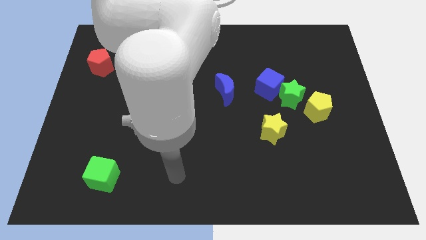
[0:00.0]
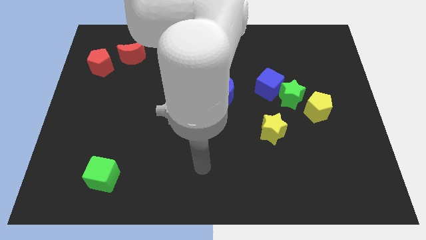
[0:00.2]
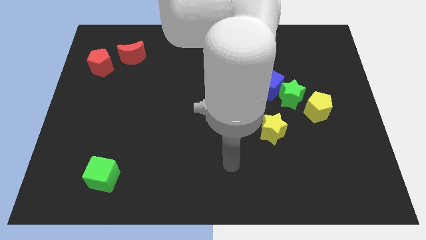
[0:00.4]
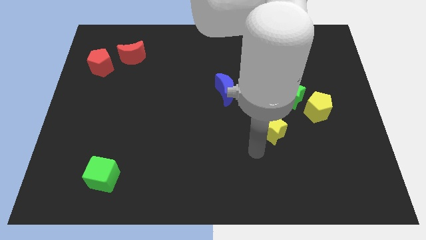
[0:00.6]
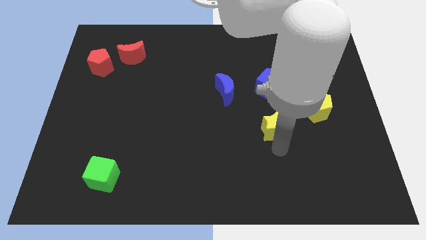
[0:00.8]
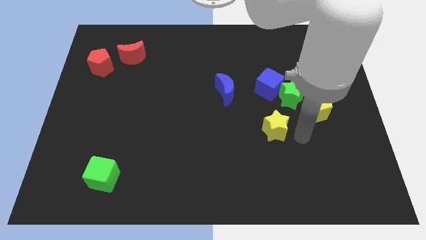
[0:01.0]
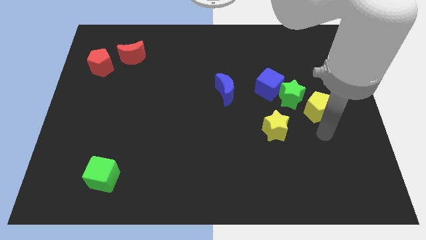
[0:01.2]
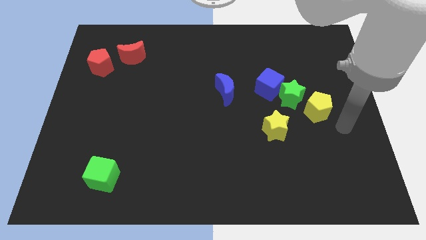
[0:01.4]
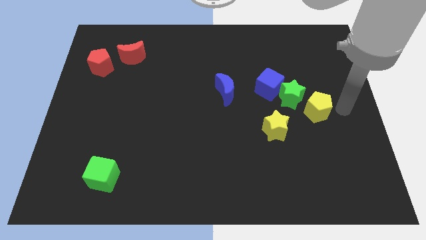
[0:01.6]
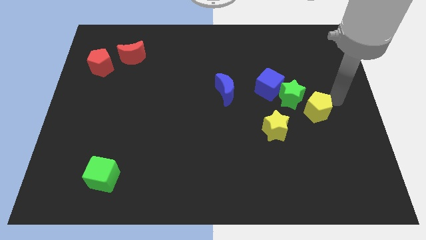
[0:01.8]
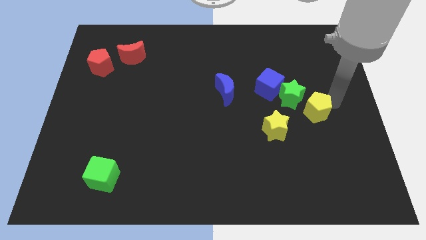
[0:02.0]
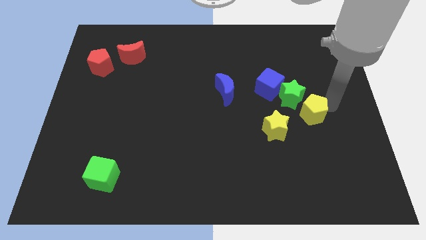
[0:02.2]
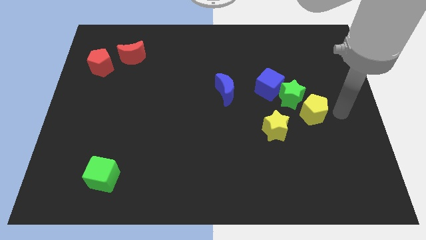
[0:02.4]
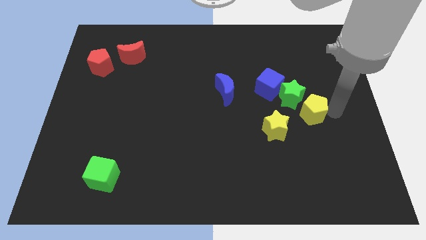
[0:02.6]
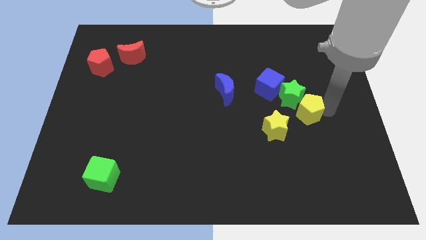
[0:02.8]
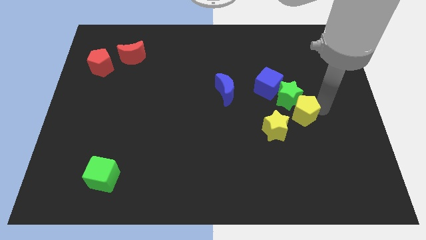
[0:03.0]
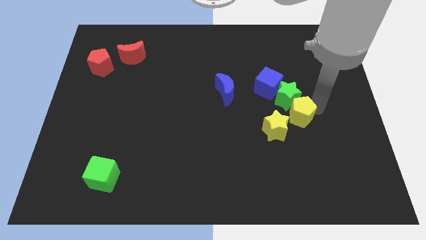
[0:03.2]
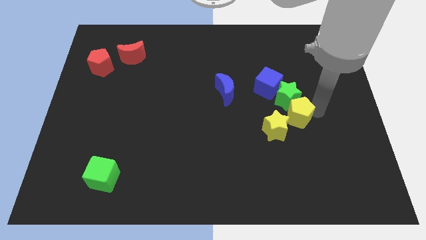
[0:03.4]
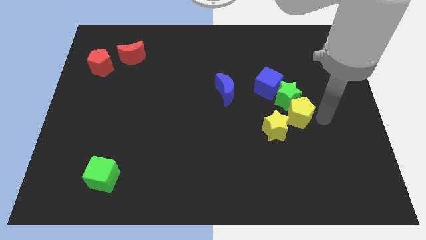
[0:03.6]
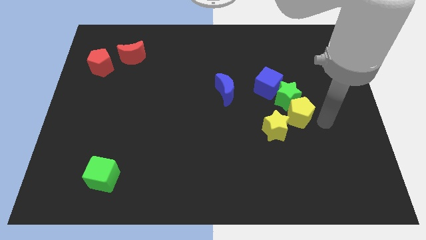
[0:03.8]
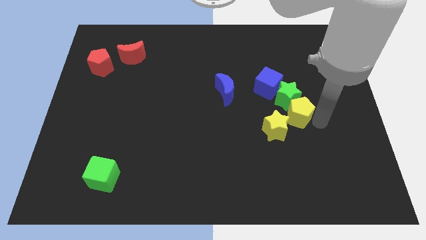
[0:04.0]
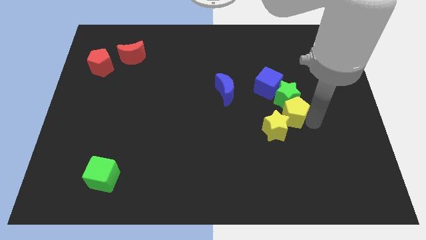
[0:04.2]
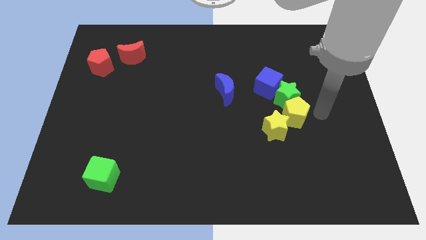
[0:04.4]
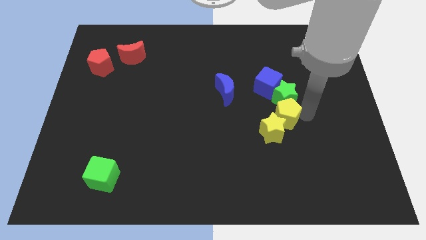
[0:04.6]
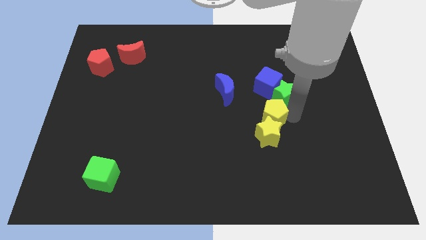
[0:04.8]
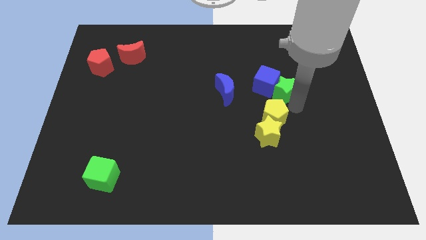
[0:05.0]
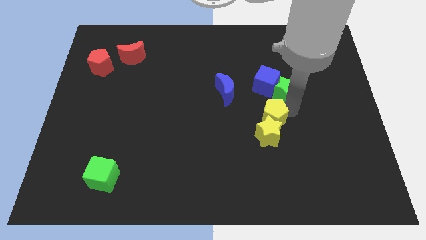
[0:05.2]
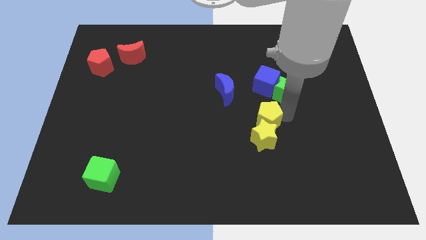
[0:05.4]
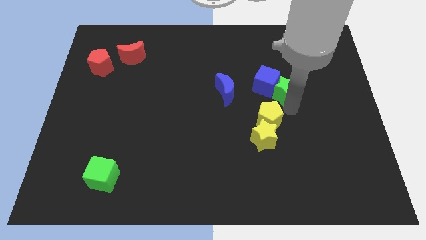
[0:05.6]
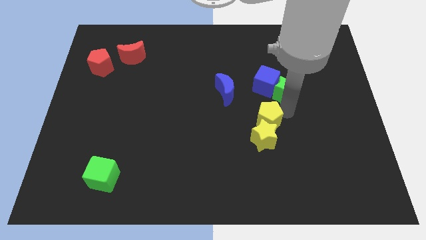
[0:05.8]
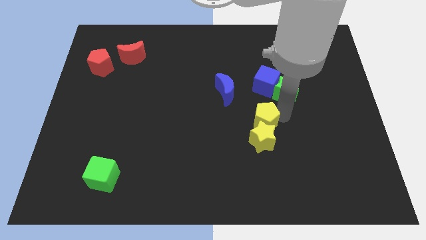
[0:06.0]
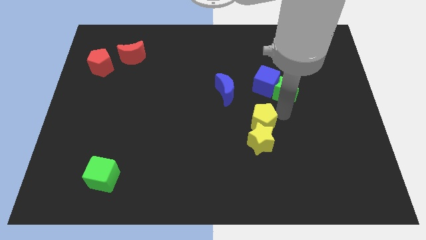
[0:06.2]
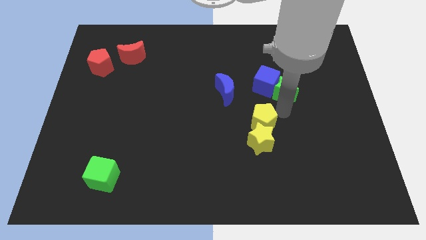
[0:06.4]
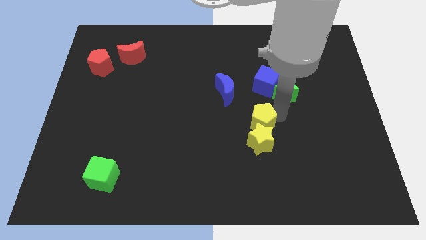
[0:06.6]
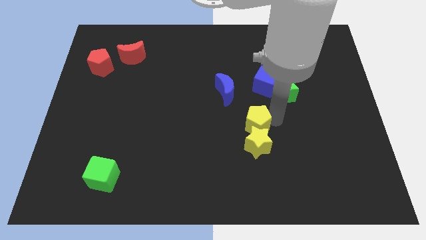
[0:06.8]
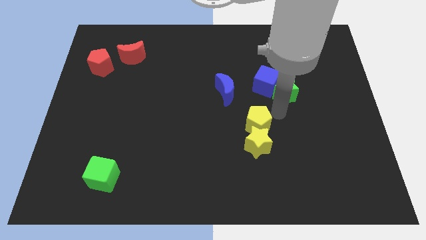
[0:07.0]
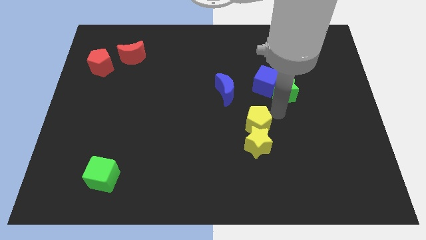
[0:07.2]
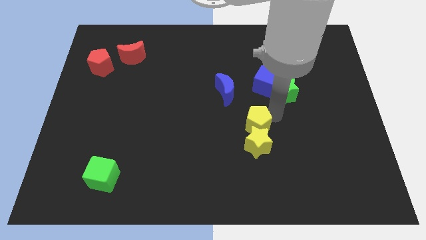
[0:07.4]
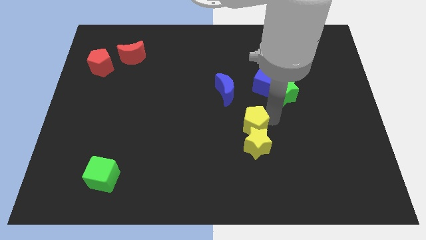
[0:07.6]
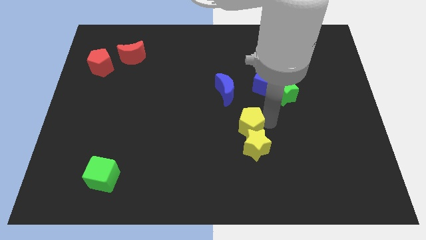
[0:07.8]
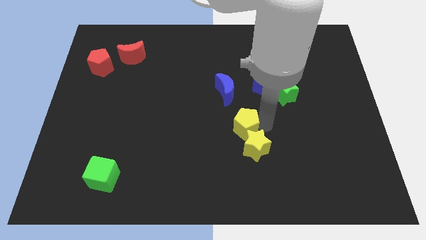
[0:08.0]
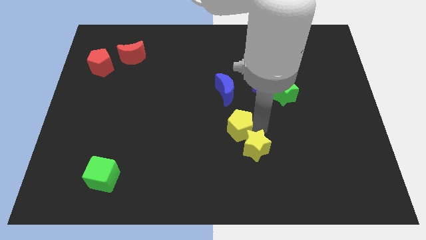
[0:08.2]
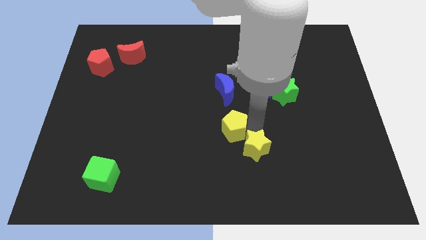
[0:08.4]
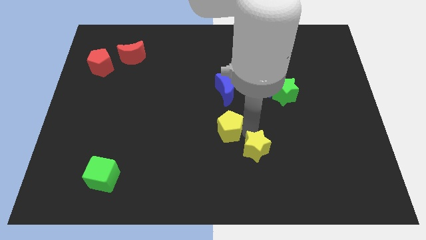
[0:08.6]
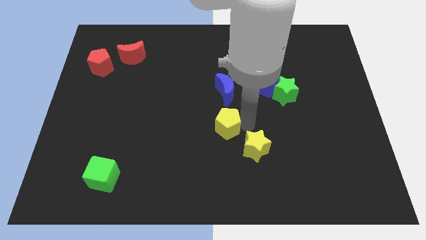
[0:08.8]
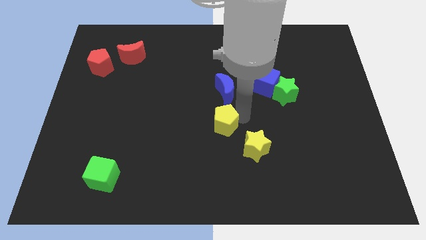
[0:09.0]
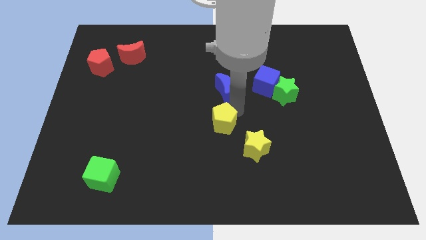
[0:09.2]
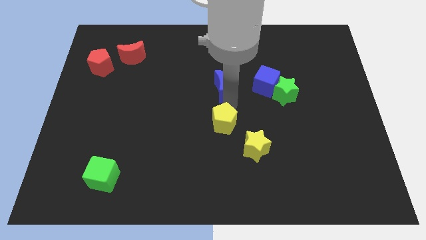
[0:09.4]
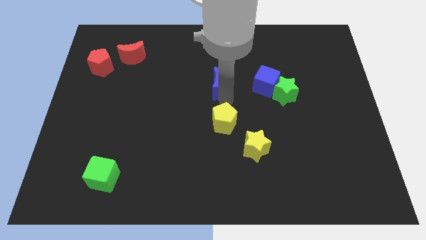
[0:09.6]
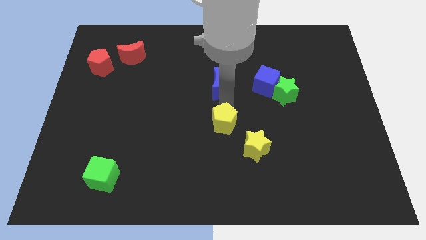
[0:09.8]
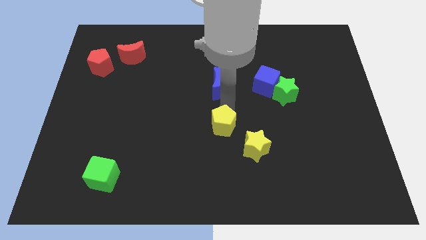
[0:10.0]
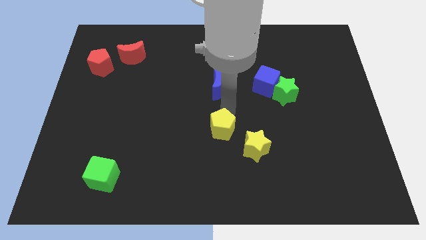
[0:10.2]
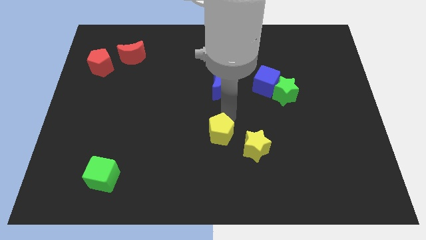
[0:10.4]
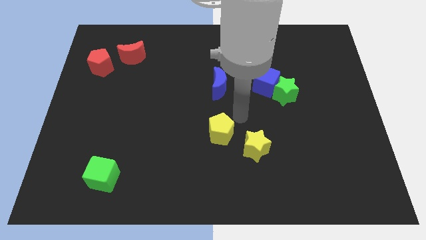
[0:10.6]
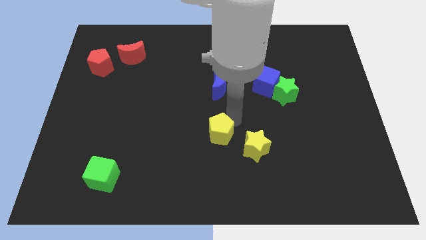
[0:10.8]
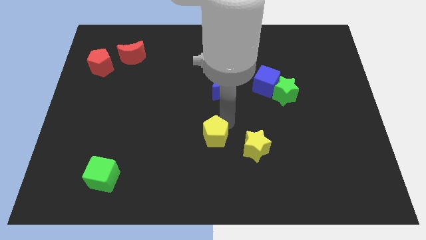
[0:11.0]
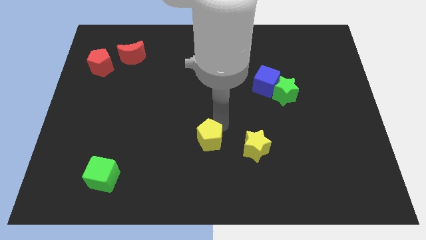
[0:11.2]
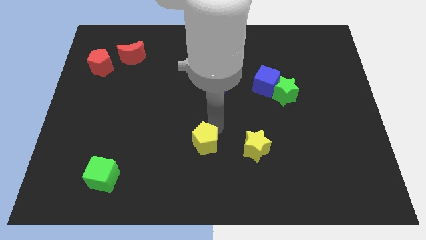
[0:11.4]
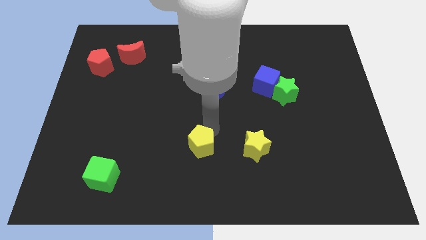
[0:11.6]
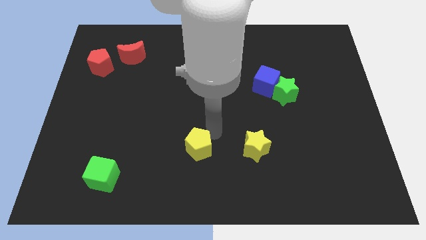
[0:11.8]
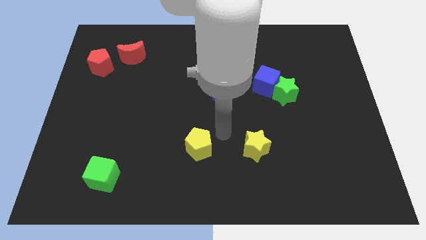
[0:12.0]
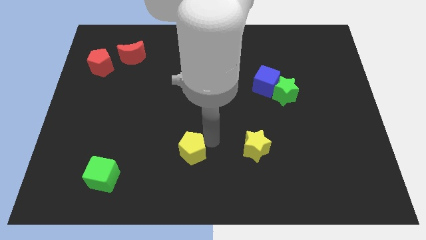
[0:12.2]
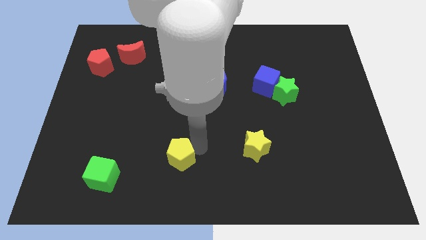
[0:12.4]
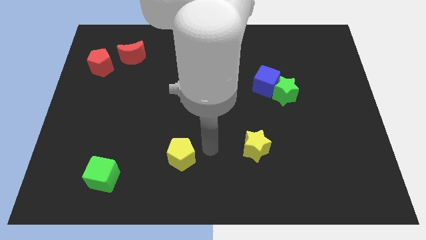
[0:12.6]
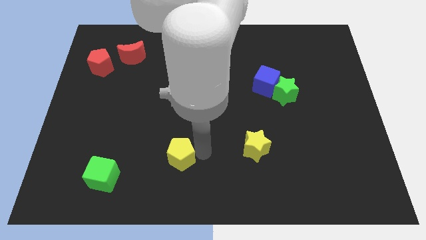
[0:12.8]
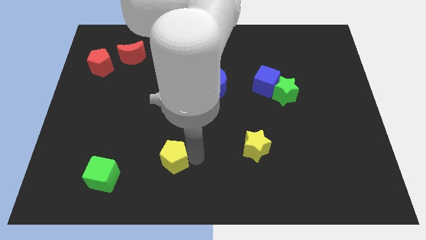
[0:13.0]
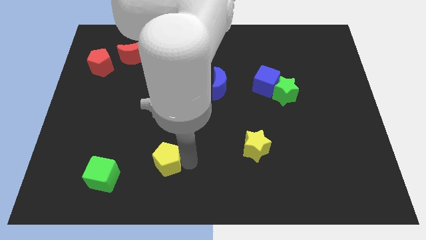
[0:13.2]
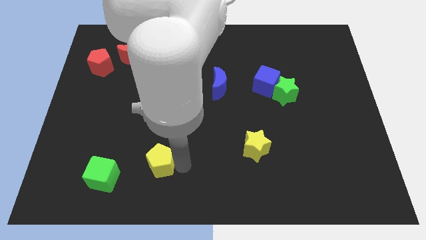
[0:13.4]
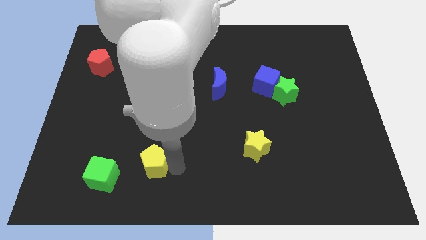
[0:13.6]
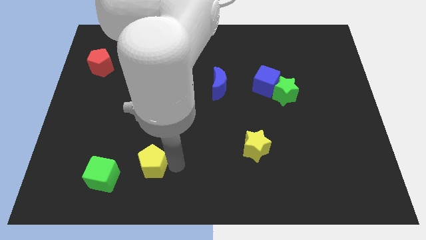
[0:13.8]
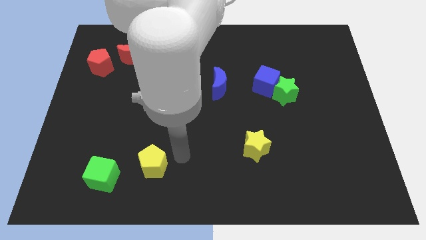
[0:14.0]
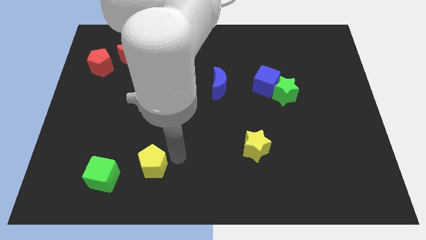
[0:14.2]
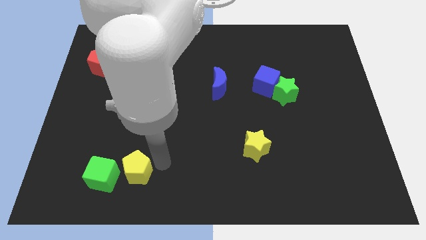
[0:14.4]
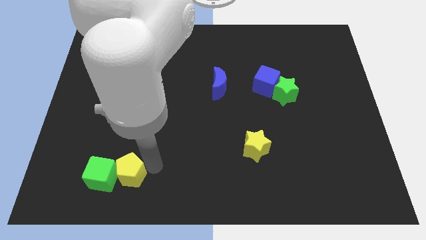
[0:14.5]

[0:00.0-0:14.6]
slide the yellow pentagon to the green cube
